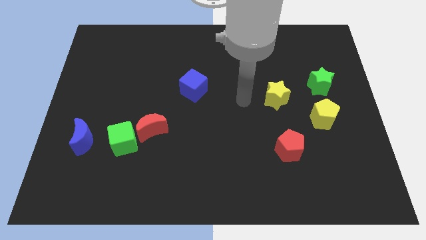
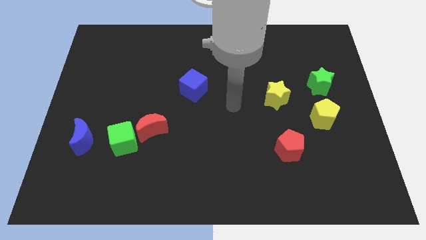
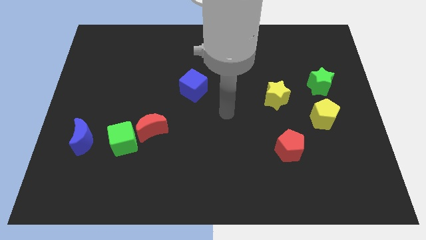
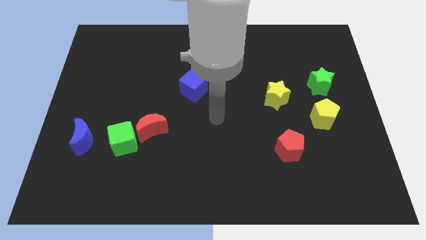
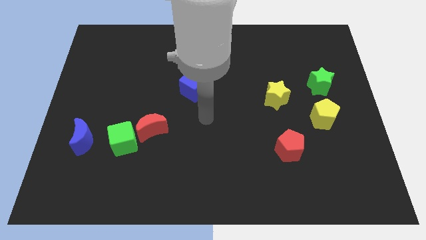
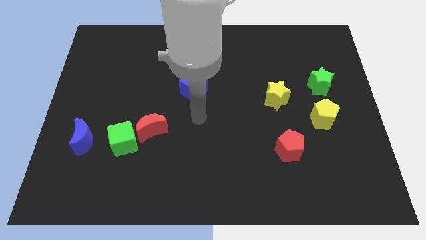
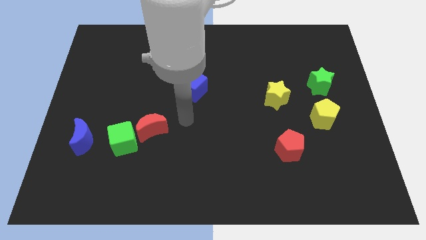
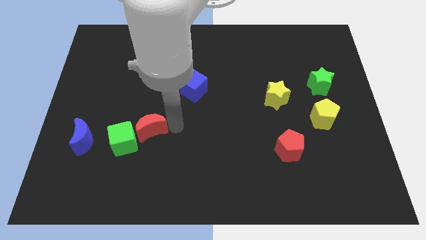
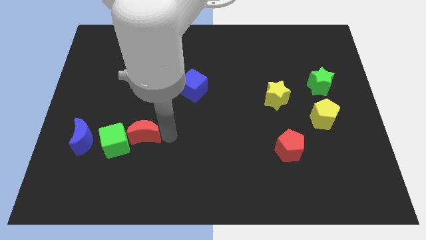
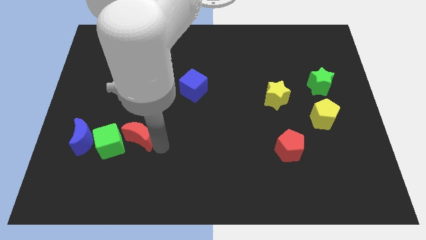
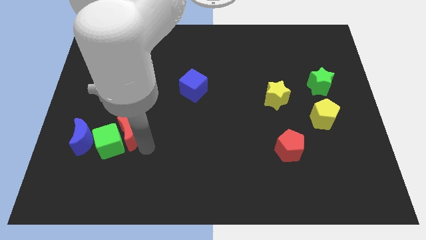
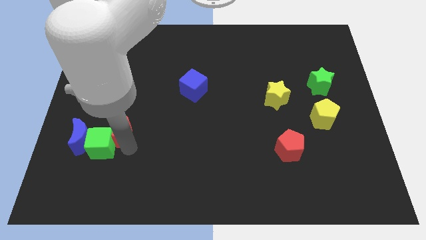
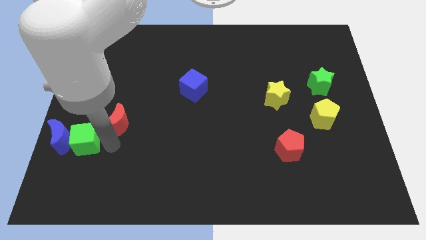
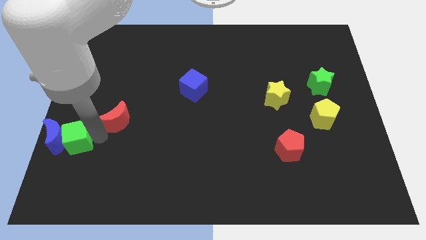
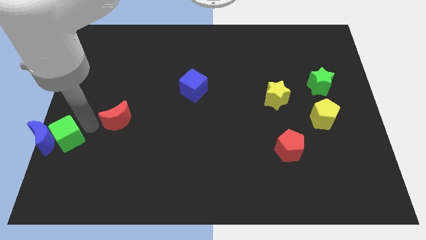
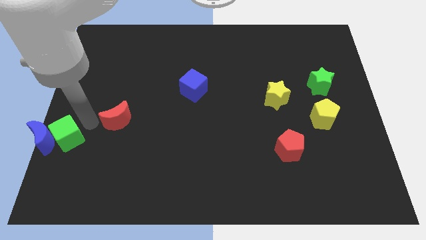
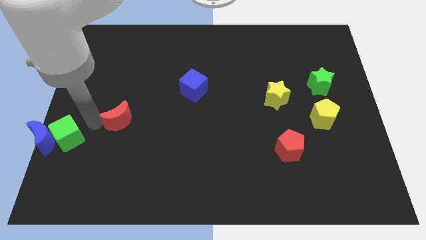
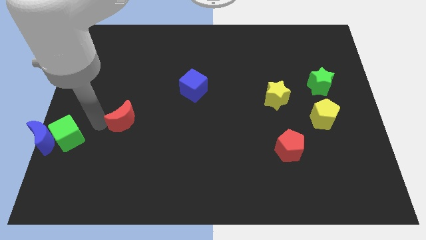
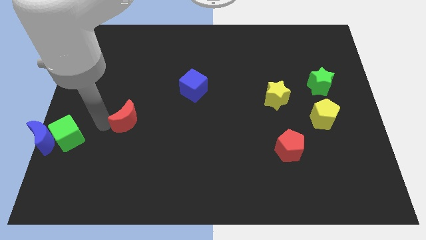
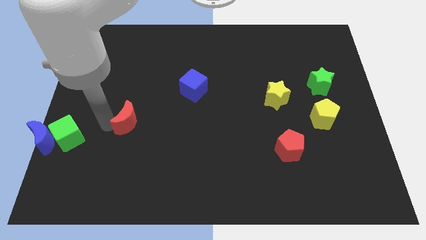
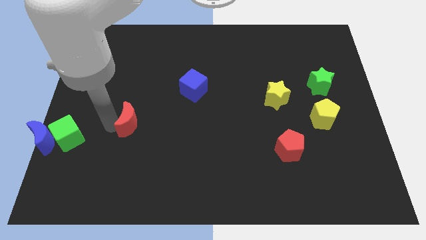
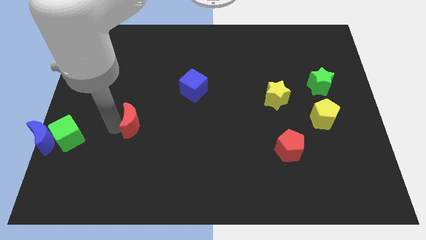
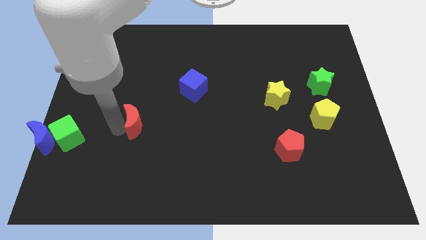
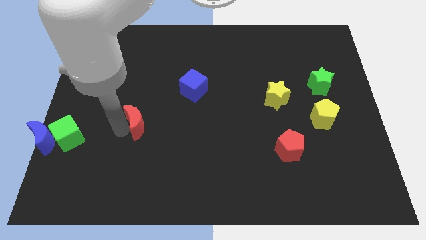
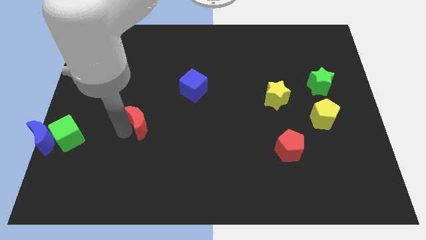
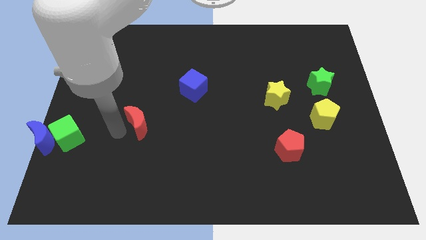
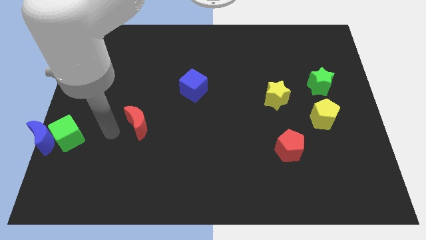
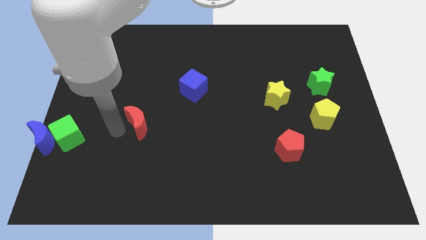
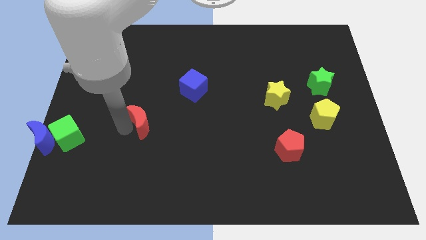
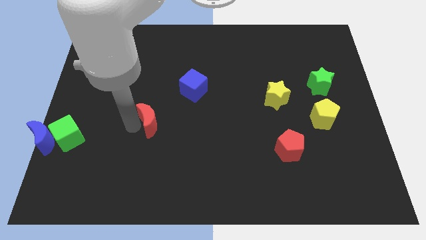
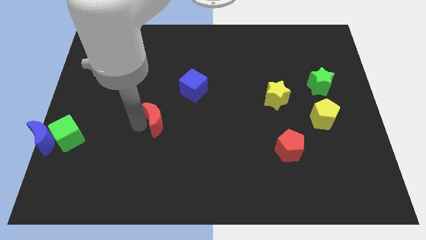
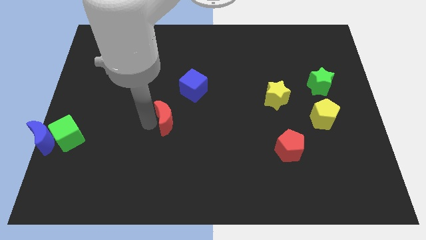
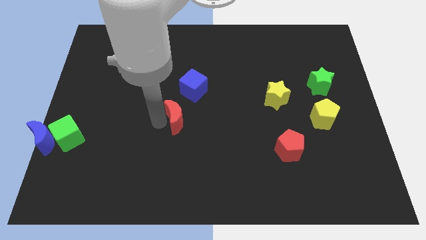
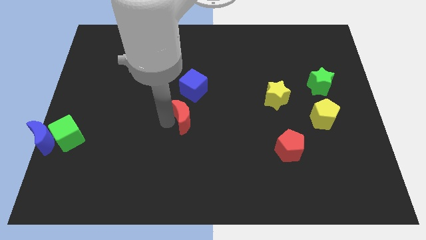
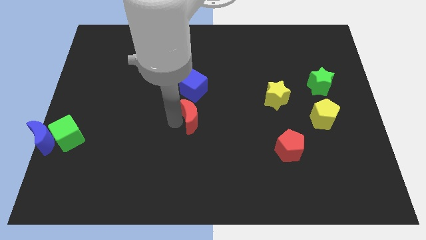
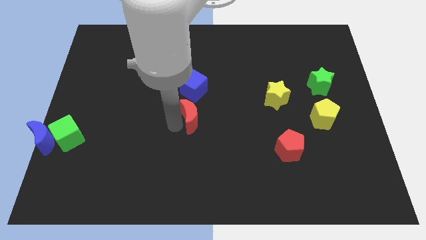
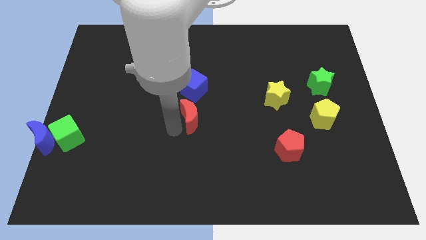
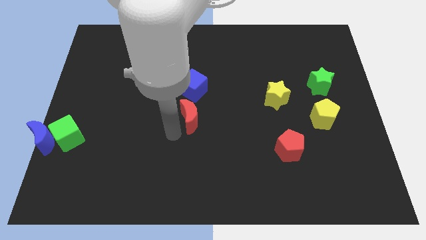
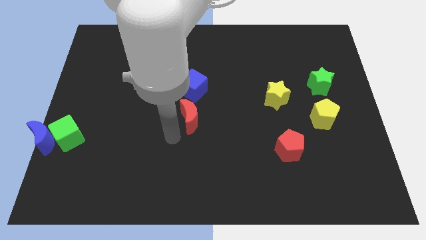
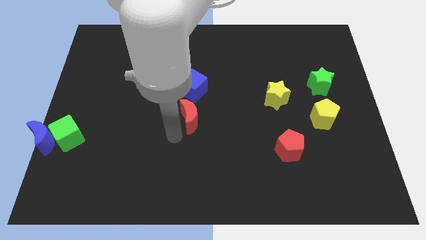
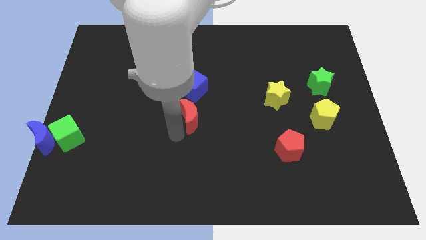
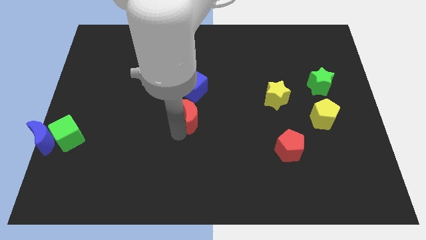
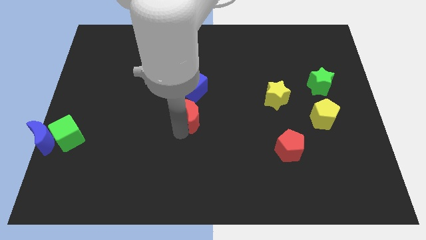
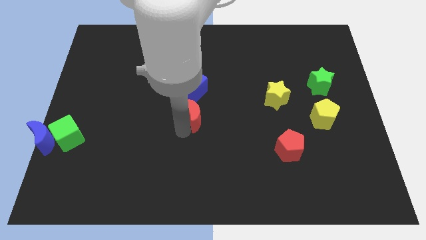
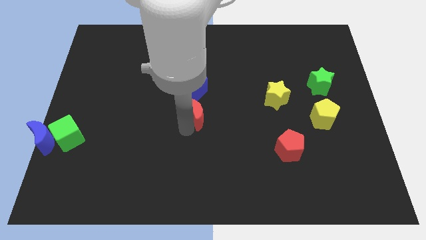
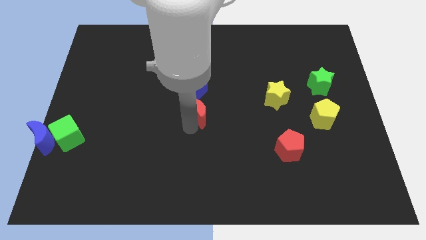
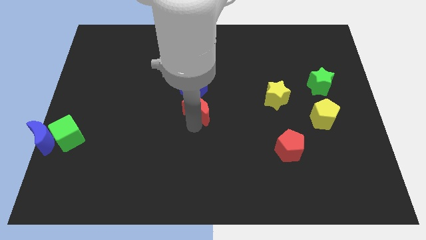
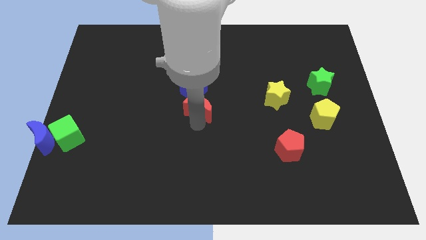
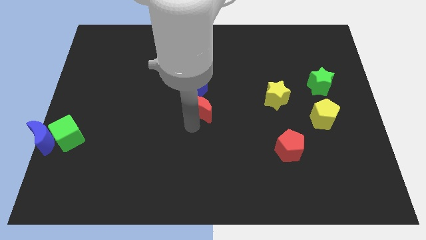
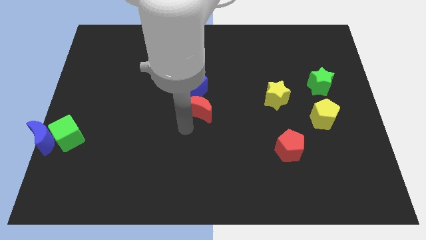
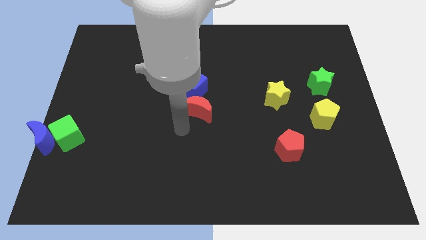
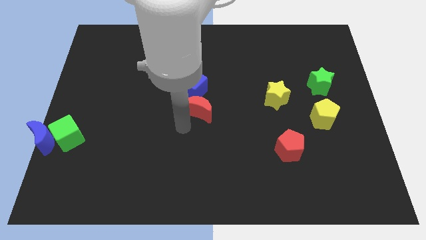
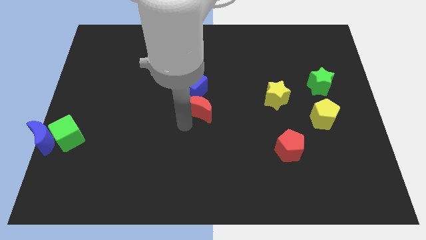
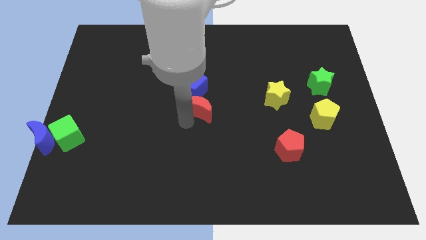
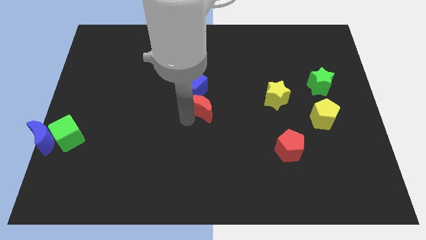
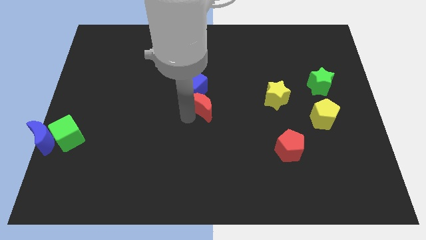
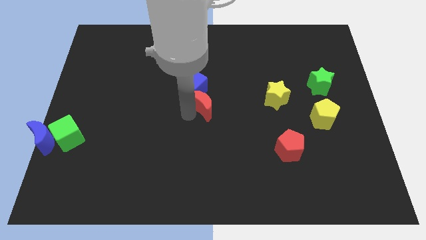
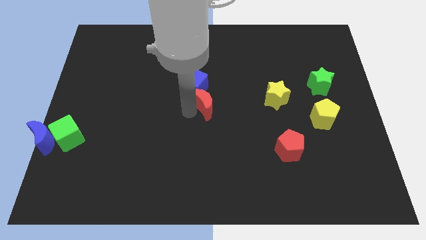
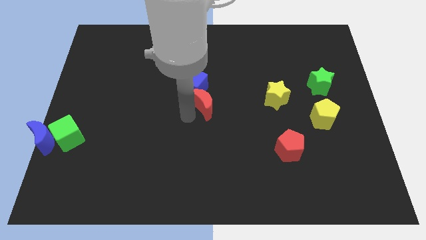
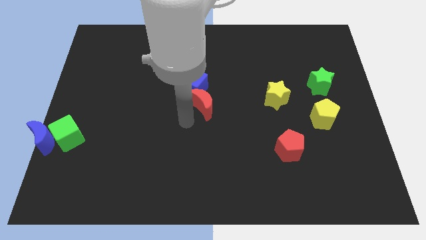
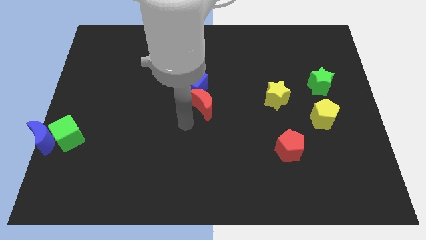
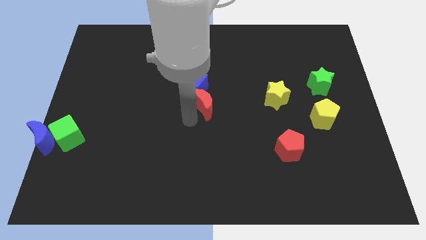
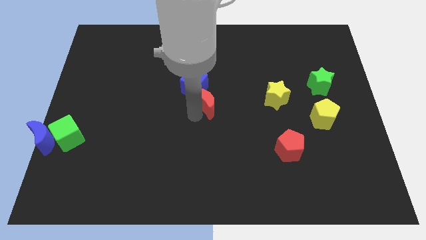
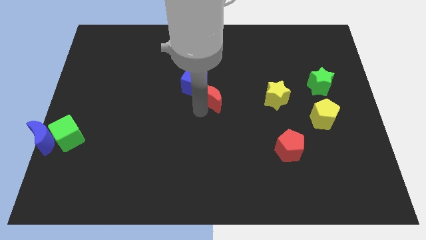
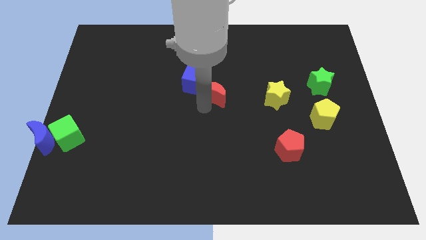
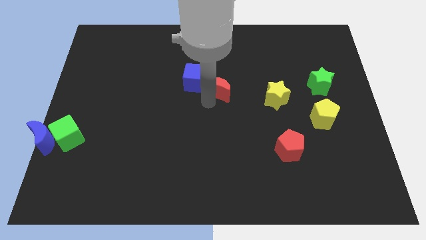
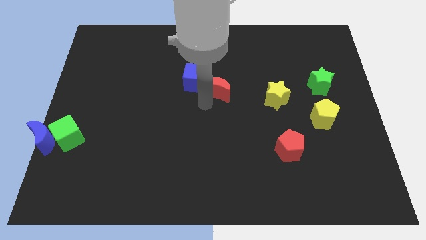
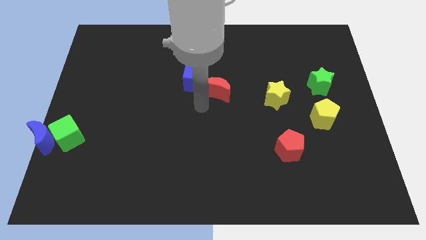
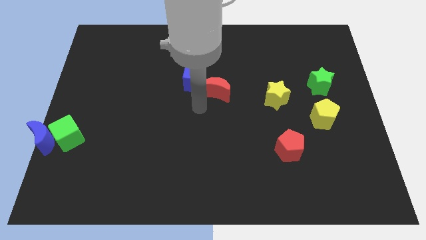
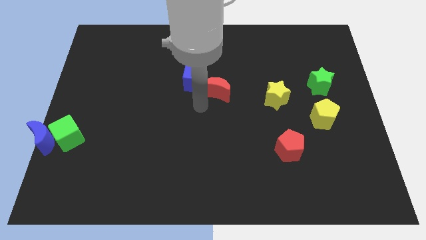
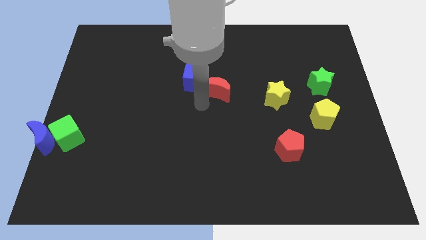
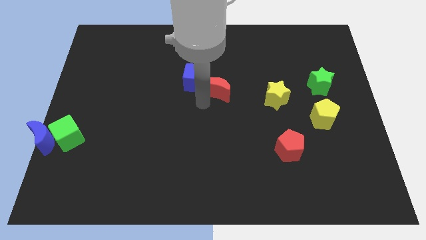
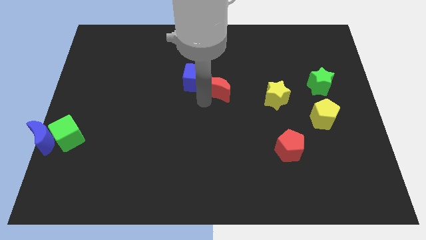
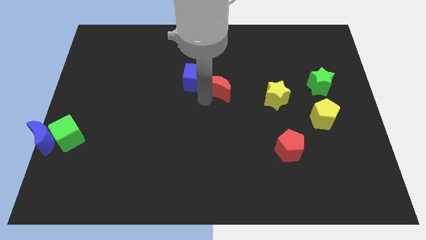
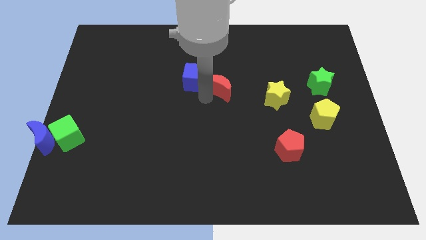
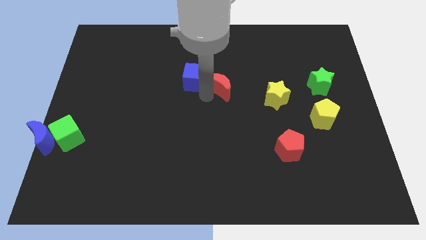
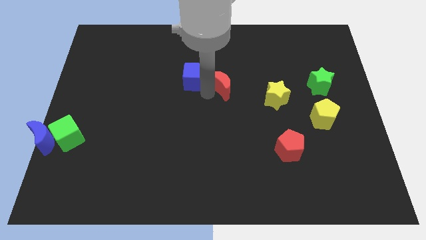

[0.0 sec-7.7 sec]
slide the red moon upwards and to the right

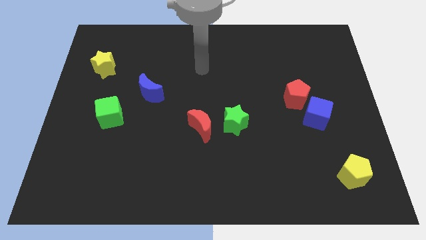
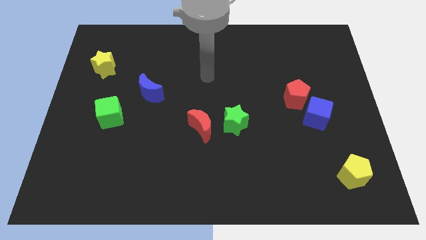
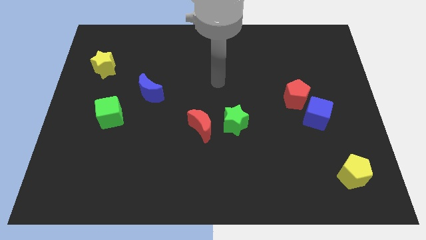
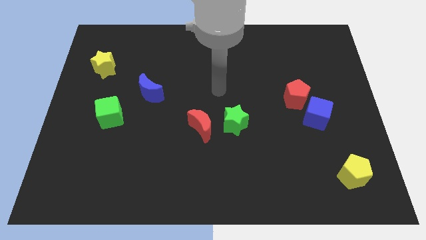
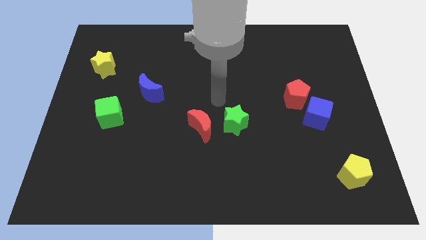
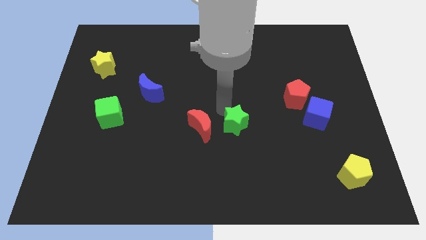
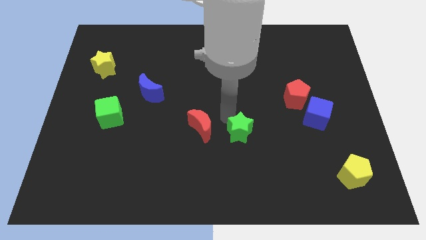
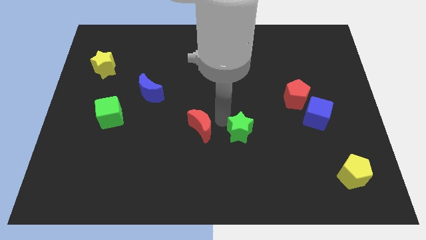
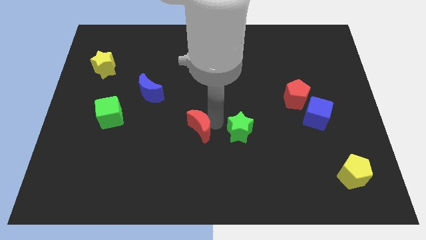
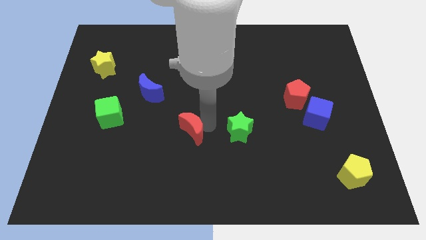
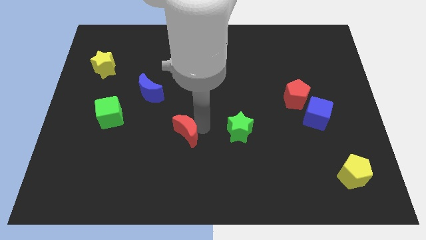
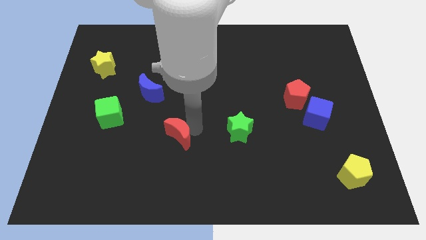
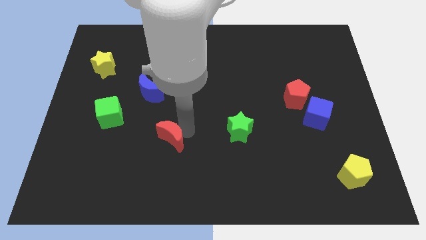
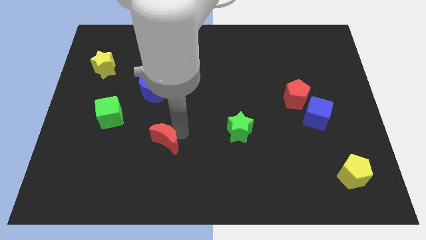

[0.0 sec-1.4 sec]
slightly slide the red moon downwards and then left
